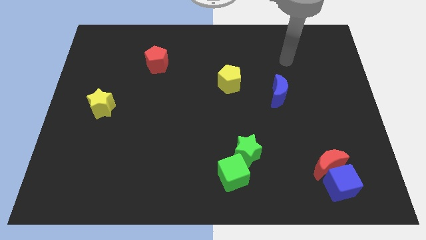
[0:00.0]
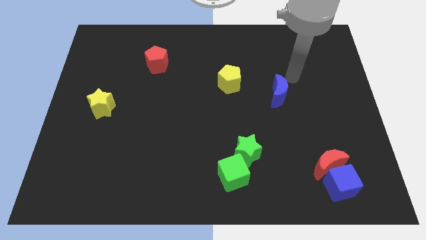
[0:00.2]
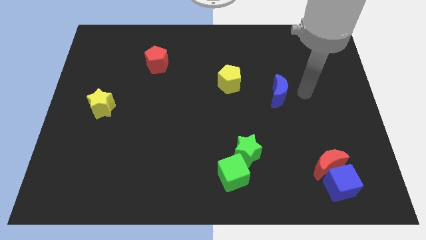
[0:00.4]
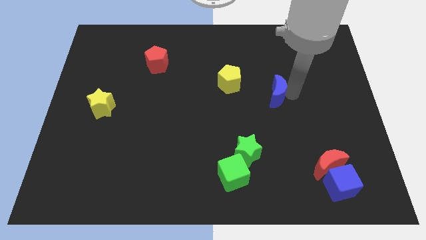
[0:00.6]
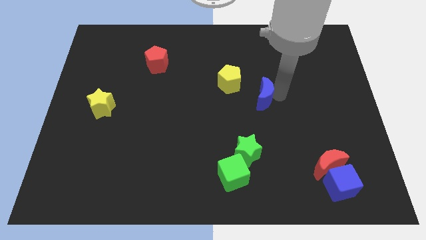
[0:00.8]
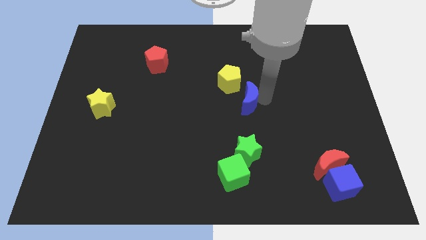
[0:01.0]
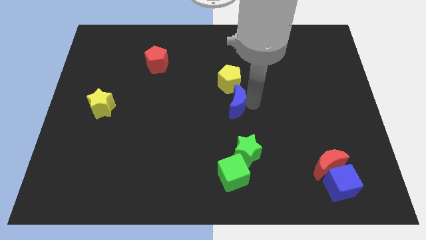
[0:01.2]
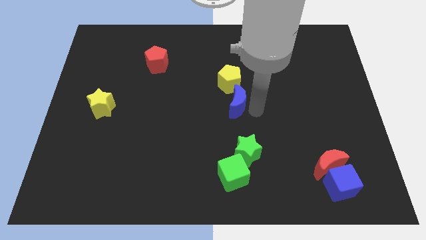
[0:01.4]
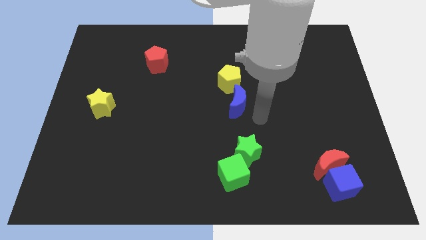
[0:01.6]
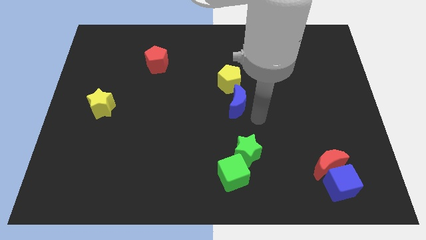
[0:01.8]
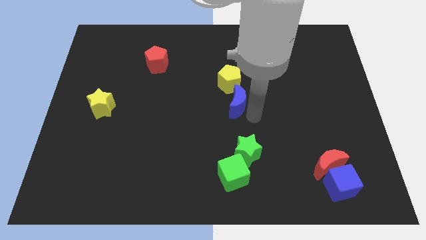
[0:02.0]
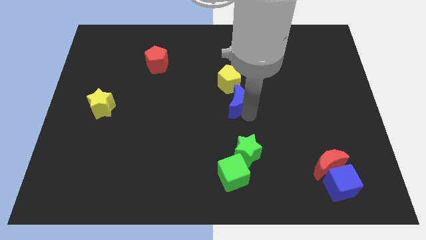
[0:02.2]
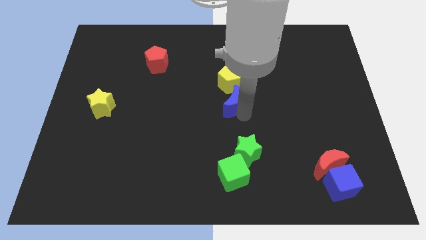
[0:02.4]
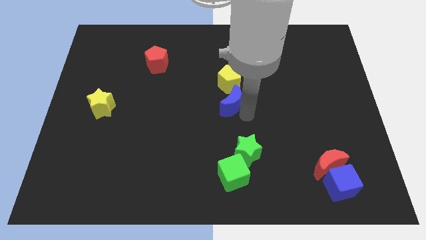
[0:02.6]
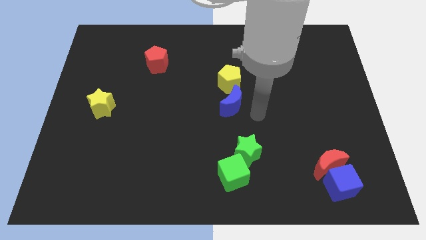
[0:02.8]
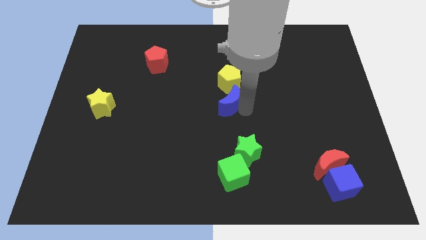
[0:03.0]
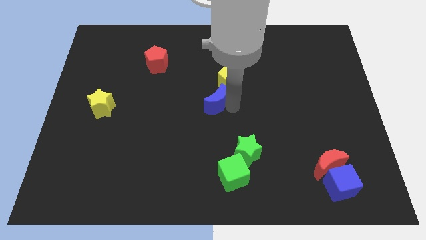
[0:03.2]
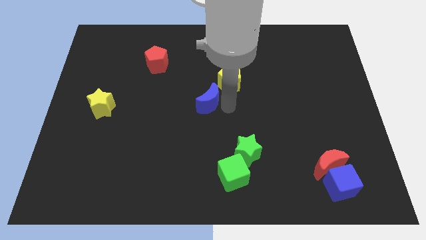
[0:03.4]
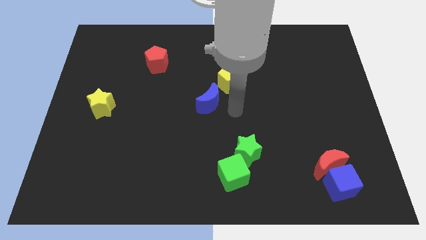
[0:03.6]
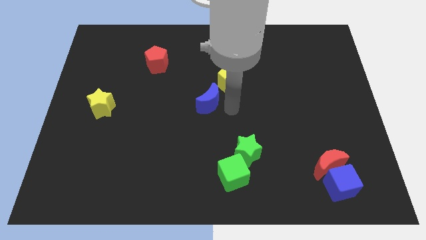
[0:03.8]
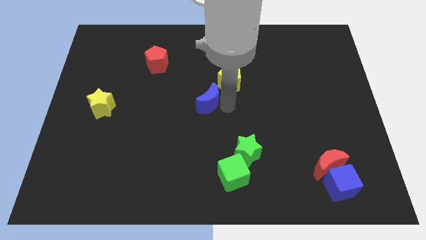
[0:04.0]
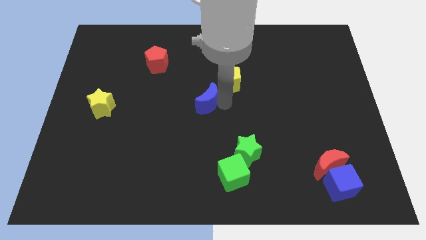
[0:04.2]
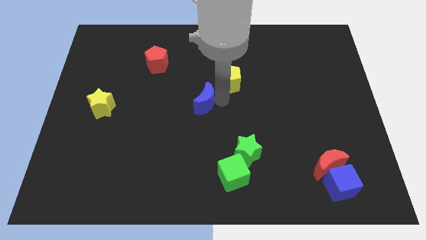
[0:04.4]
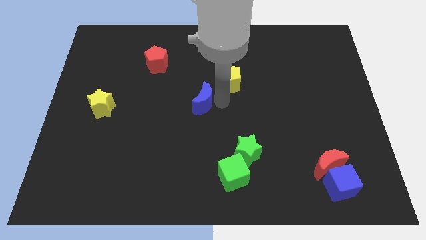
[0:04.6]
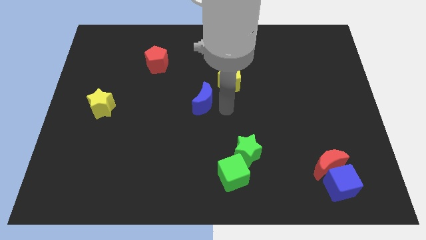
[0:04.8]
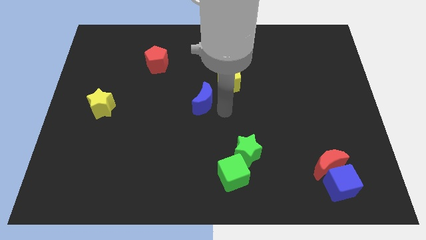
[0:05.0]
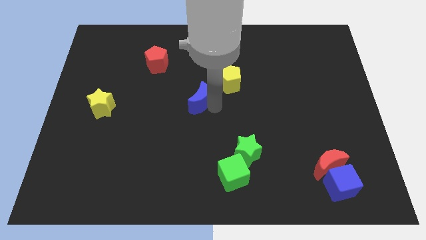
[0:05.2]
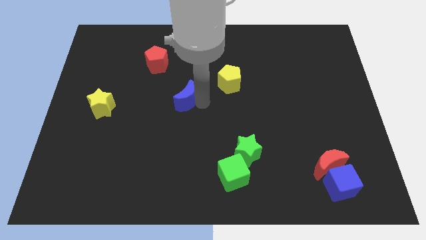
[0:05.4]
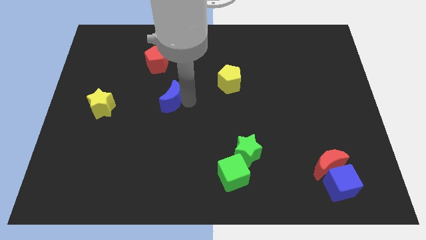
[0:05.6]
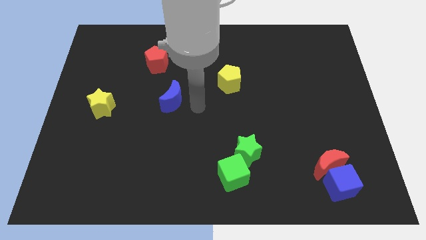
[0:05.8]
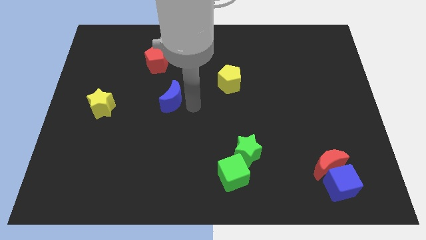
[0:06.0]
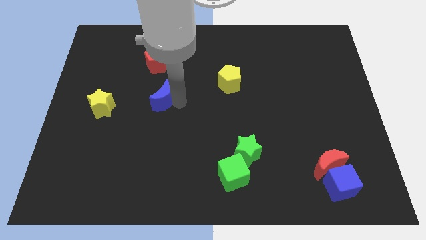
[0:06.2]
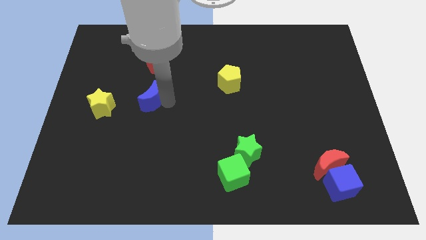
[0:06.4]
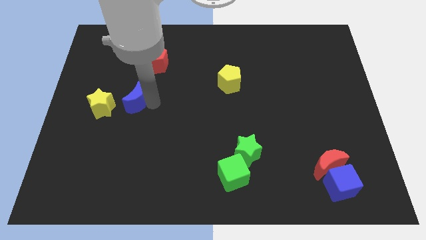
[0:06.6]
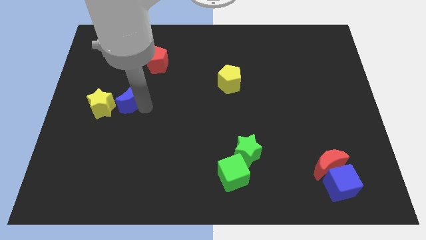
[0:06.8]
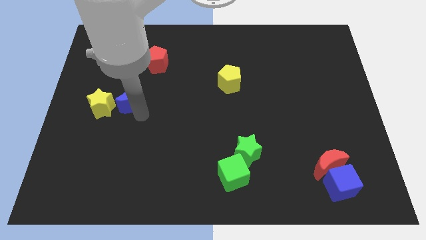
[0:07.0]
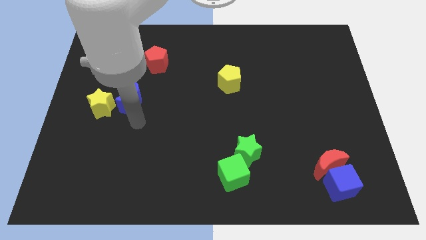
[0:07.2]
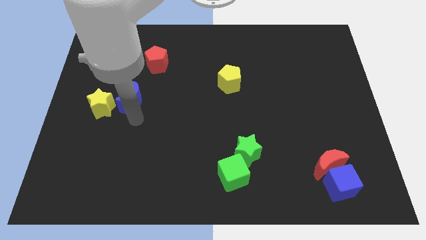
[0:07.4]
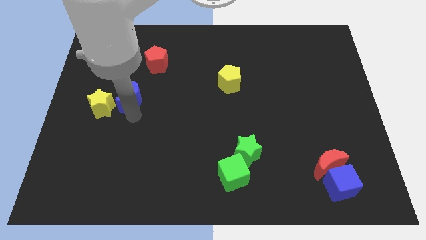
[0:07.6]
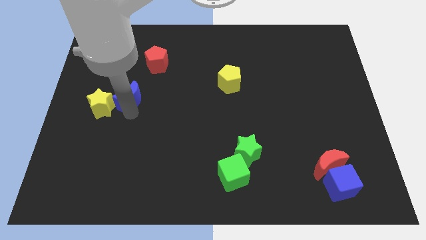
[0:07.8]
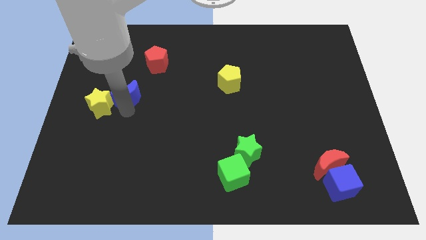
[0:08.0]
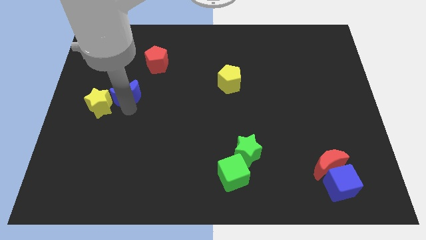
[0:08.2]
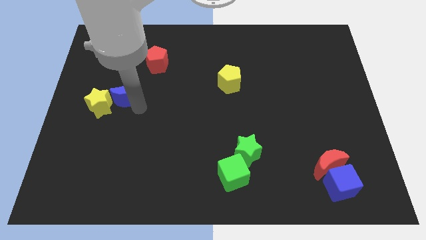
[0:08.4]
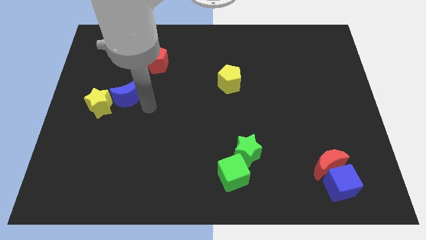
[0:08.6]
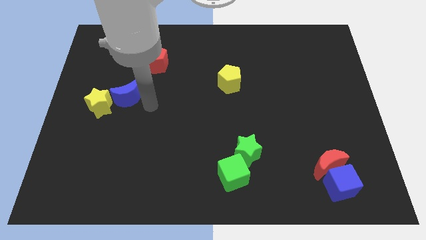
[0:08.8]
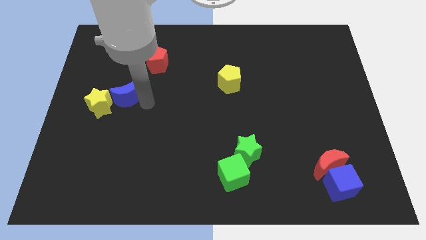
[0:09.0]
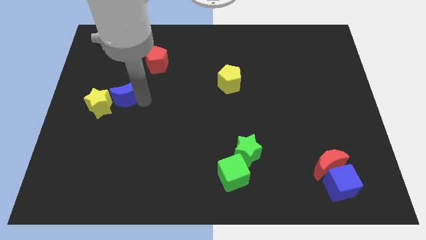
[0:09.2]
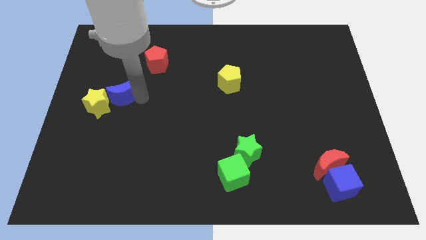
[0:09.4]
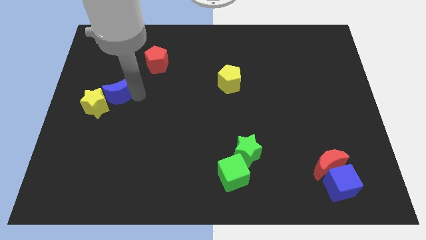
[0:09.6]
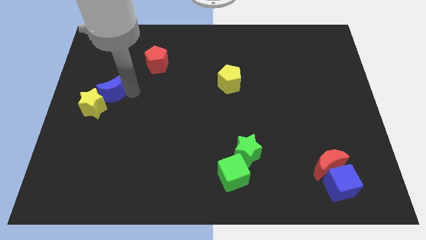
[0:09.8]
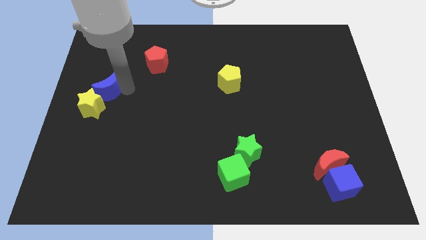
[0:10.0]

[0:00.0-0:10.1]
slide the blue moon to the left side

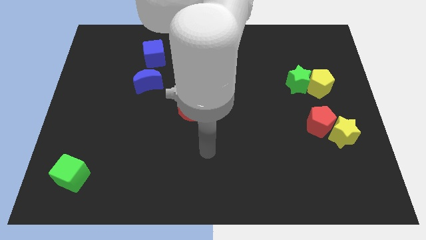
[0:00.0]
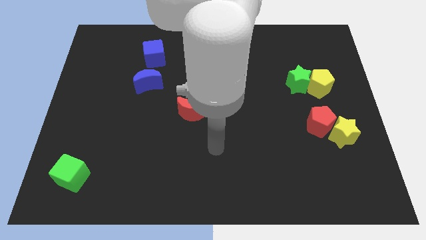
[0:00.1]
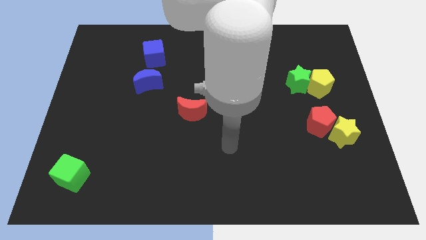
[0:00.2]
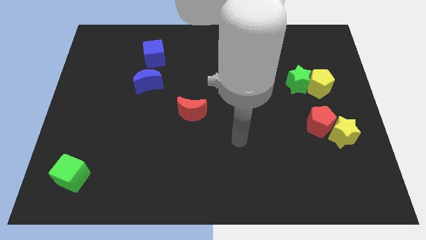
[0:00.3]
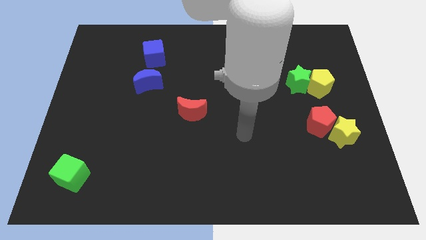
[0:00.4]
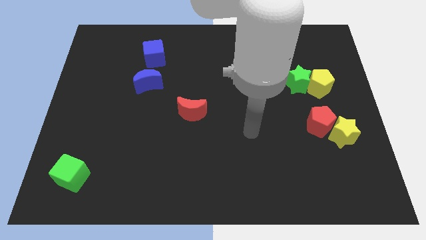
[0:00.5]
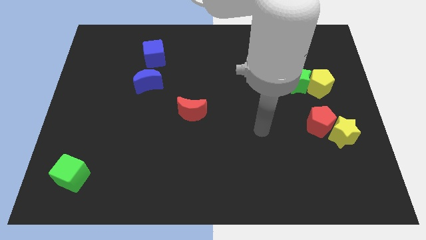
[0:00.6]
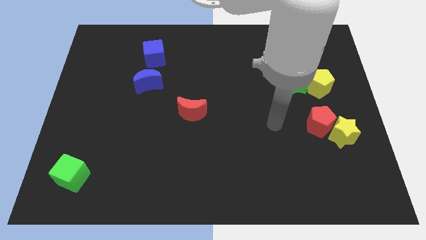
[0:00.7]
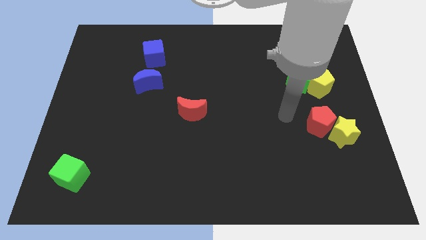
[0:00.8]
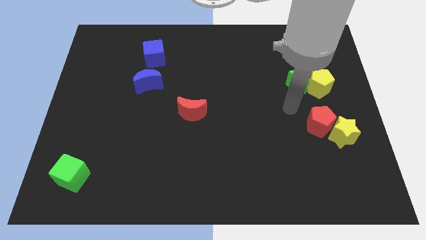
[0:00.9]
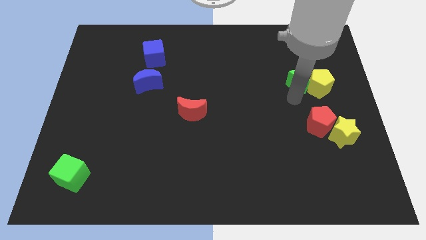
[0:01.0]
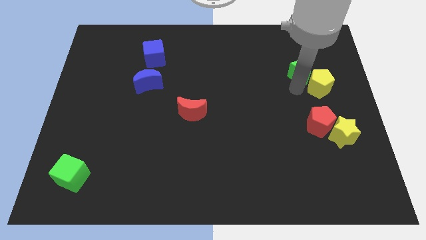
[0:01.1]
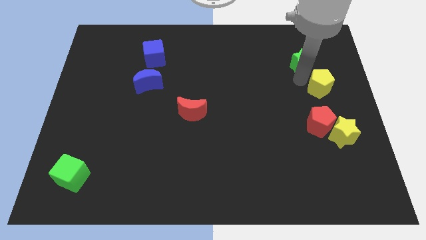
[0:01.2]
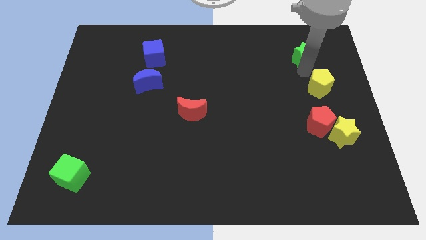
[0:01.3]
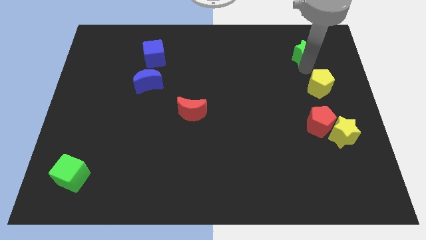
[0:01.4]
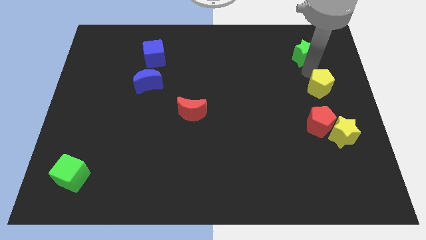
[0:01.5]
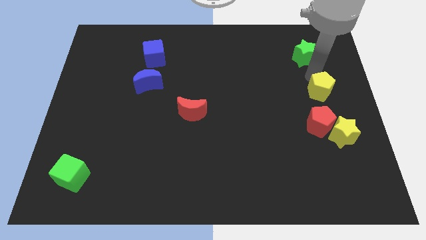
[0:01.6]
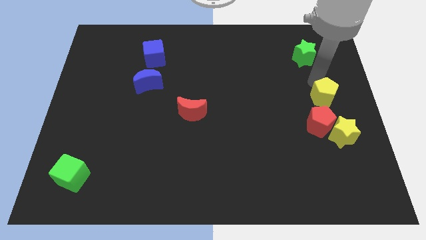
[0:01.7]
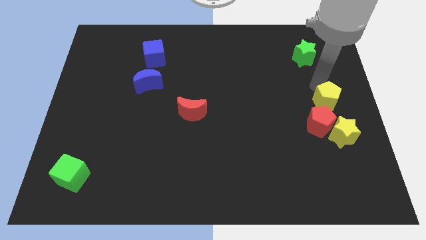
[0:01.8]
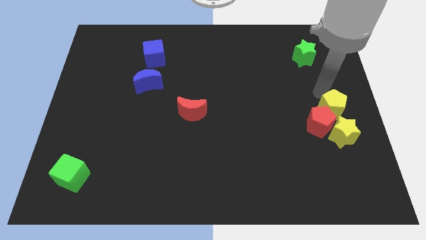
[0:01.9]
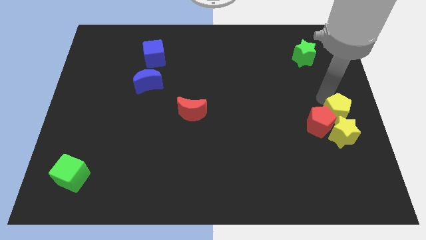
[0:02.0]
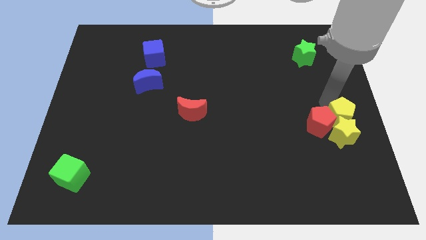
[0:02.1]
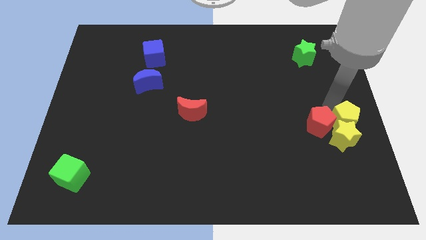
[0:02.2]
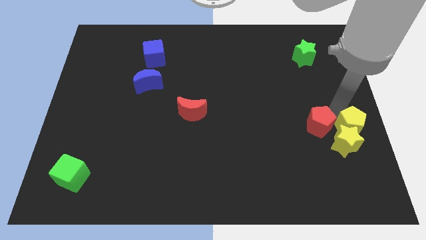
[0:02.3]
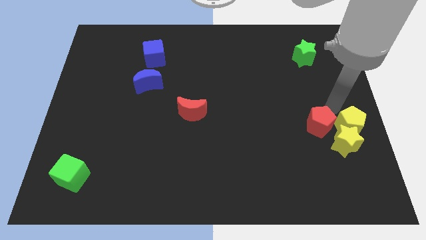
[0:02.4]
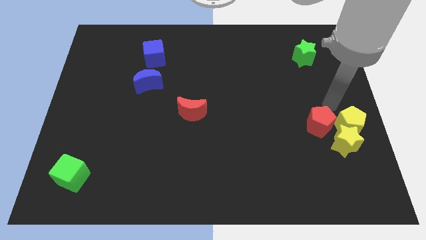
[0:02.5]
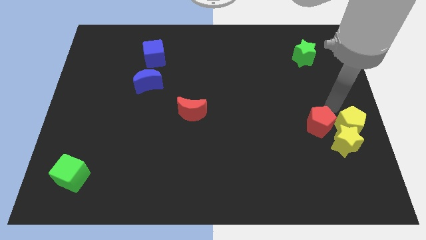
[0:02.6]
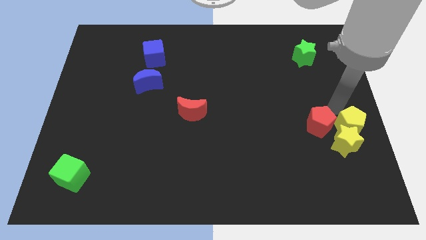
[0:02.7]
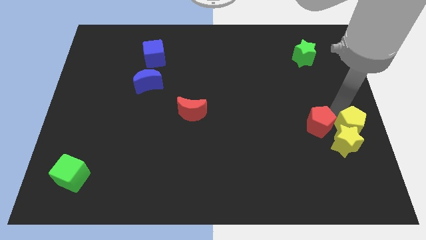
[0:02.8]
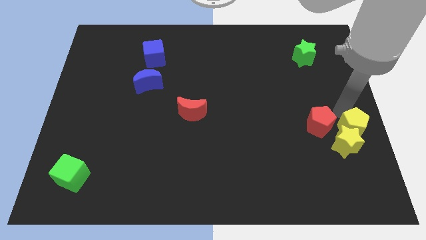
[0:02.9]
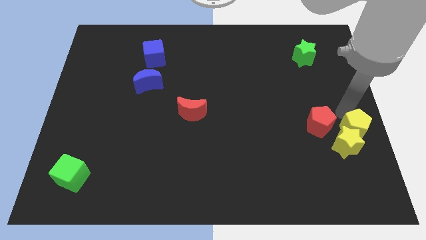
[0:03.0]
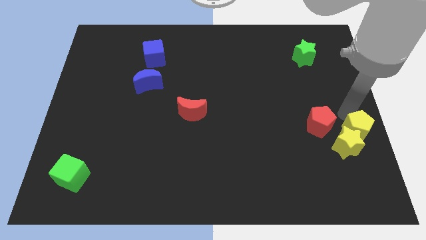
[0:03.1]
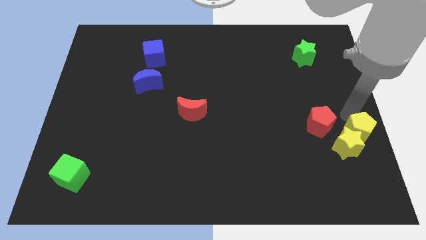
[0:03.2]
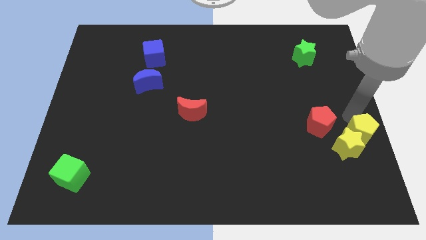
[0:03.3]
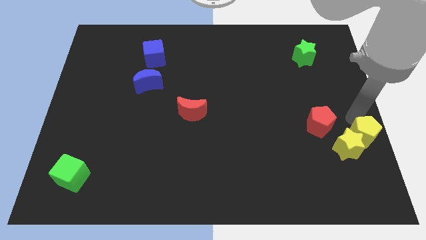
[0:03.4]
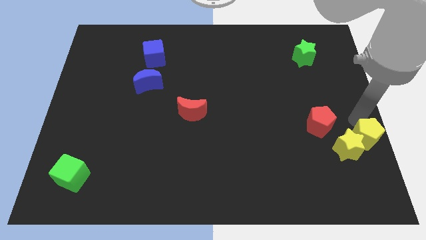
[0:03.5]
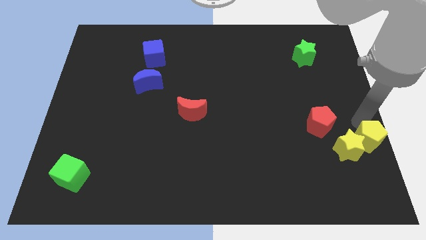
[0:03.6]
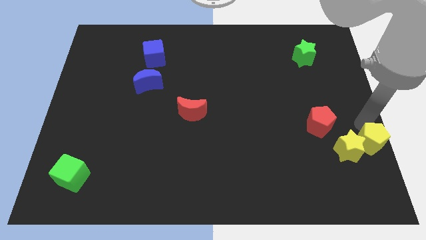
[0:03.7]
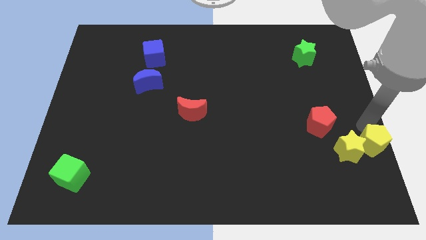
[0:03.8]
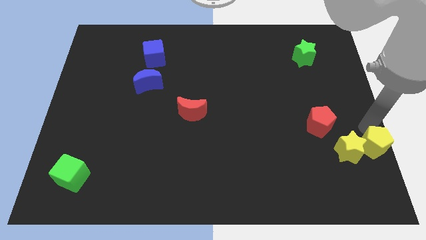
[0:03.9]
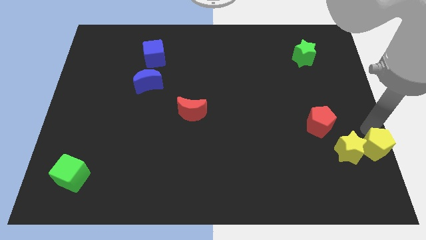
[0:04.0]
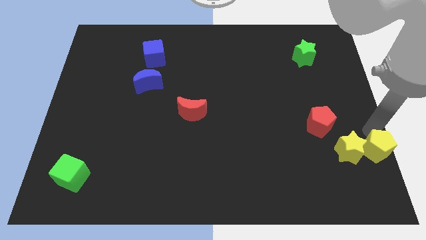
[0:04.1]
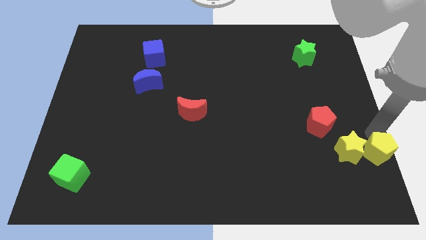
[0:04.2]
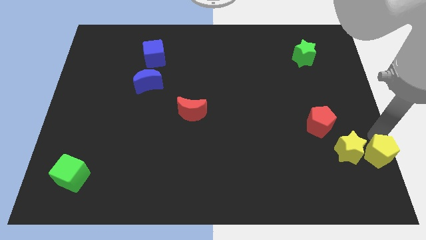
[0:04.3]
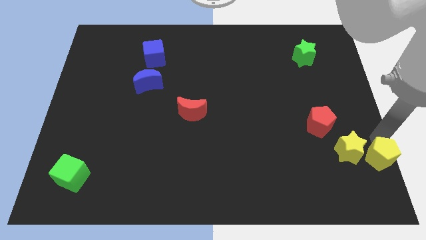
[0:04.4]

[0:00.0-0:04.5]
put the yellow pentagon to the bottom right corner
